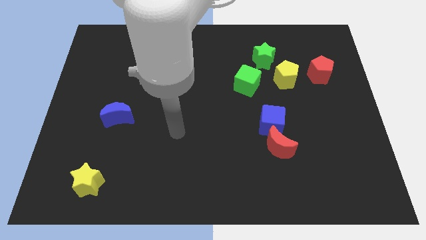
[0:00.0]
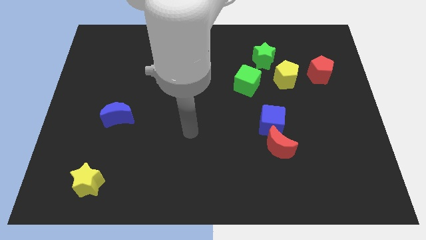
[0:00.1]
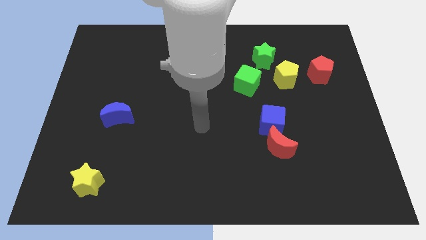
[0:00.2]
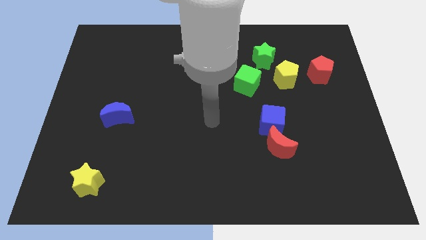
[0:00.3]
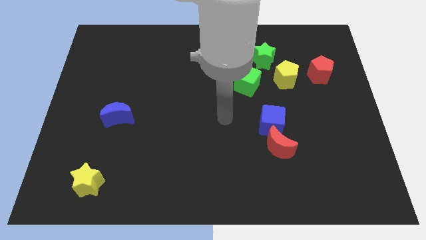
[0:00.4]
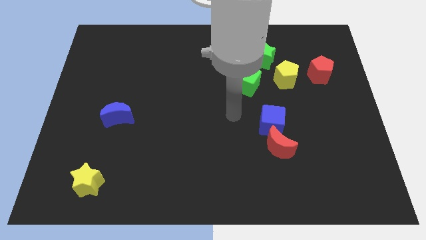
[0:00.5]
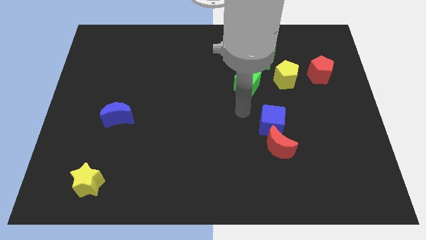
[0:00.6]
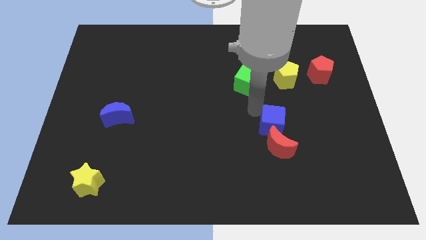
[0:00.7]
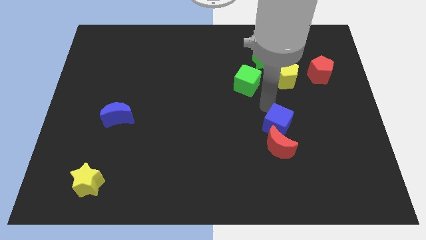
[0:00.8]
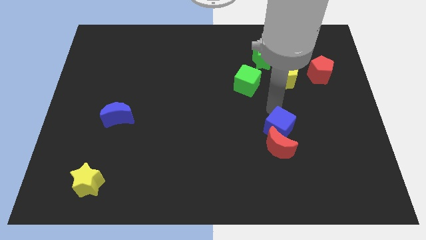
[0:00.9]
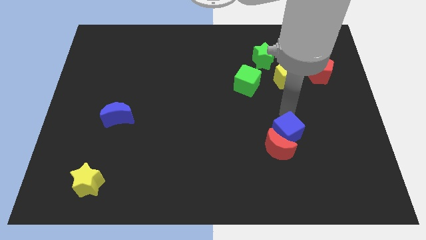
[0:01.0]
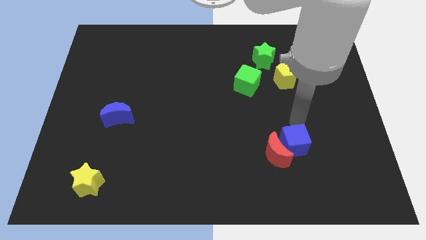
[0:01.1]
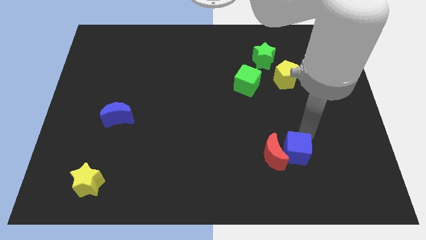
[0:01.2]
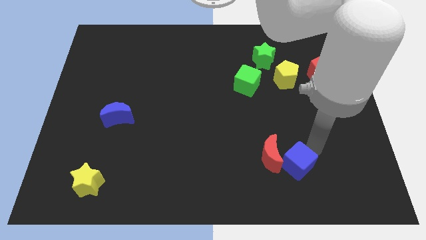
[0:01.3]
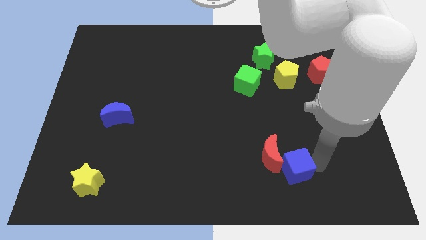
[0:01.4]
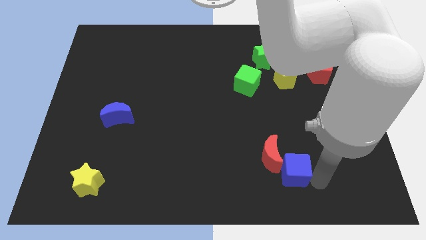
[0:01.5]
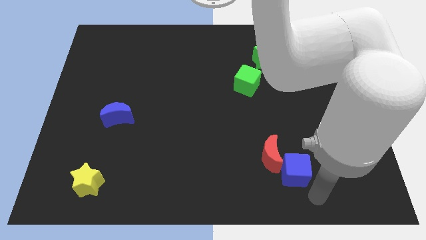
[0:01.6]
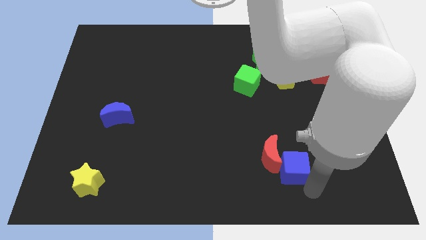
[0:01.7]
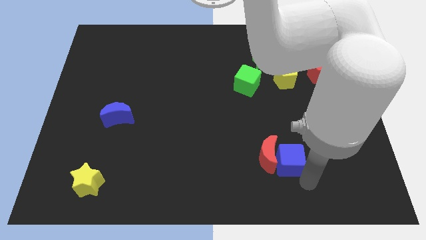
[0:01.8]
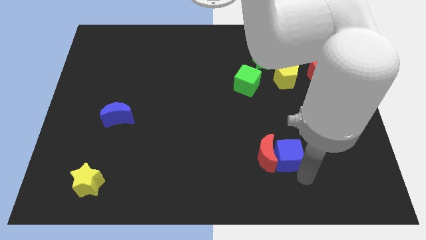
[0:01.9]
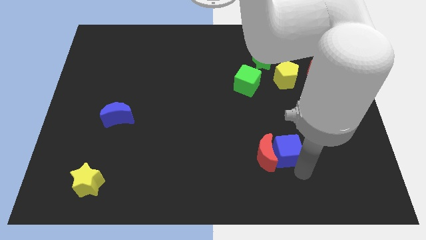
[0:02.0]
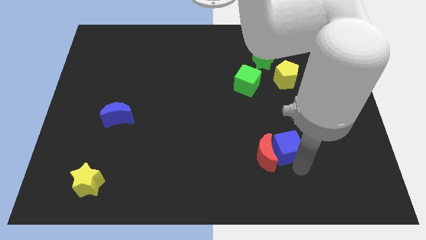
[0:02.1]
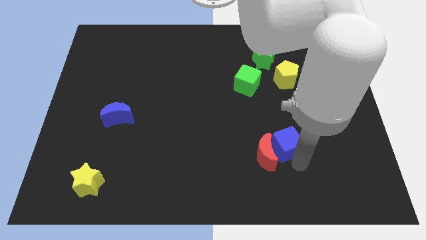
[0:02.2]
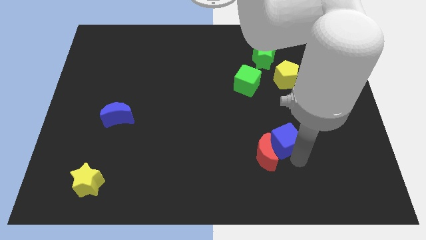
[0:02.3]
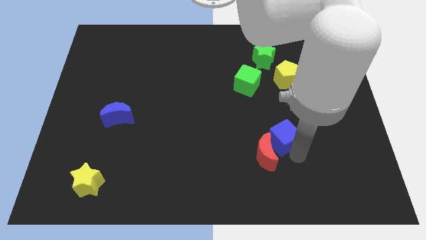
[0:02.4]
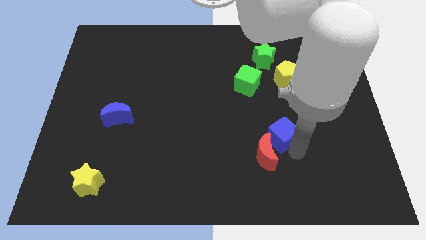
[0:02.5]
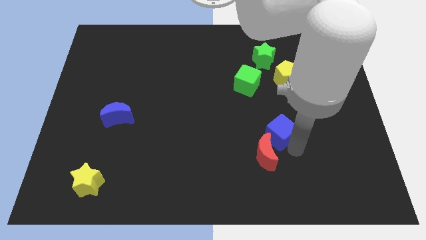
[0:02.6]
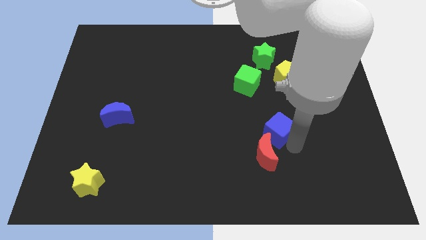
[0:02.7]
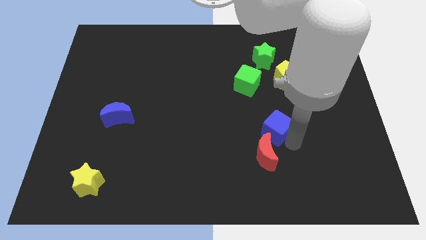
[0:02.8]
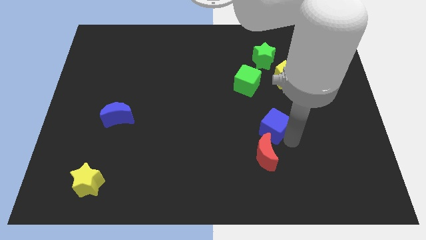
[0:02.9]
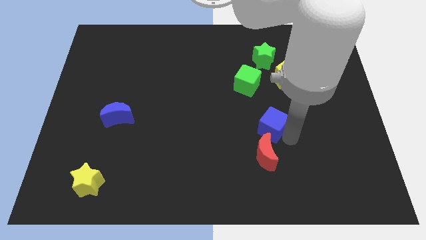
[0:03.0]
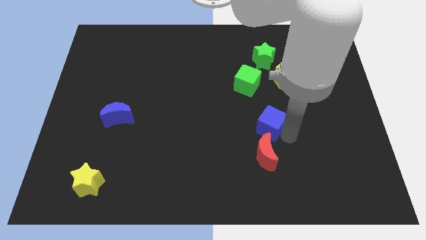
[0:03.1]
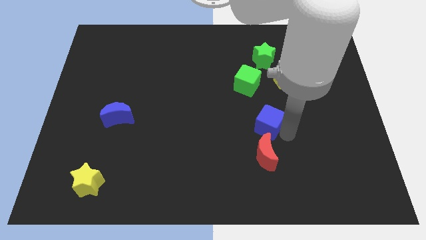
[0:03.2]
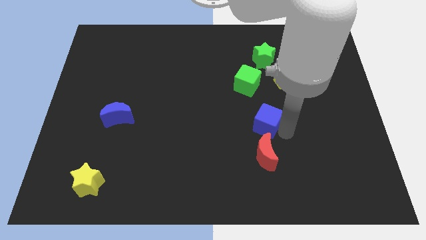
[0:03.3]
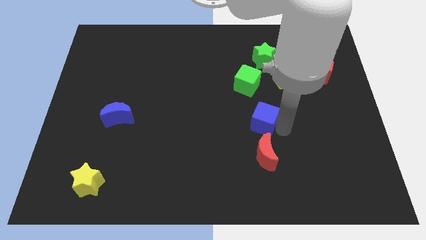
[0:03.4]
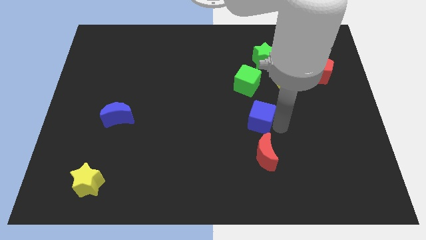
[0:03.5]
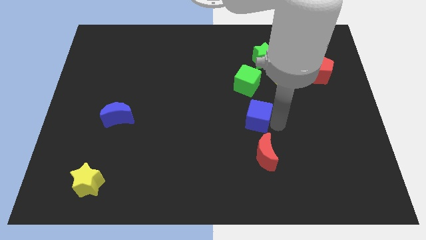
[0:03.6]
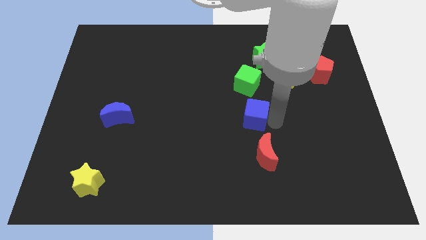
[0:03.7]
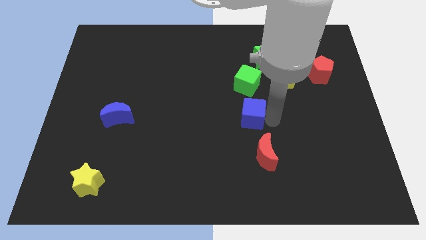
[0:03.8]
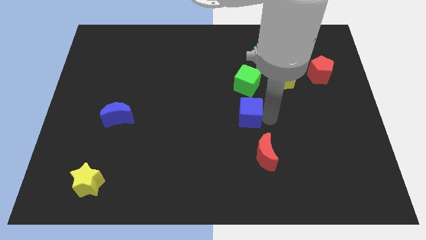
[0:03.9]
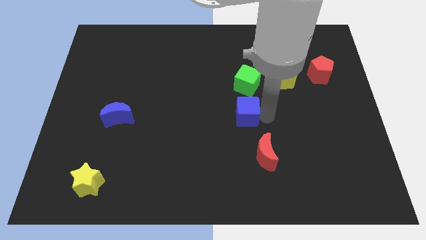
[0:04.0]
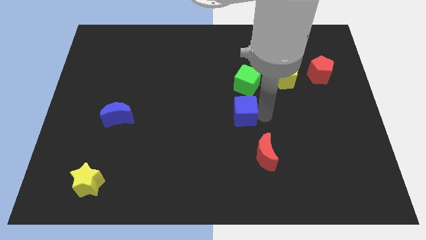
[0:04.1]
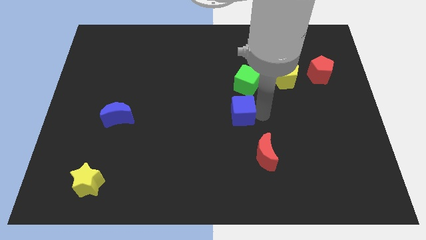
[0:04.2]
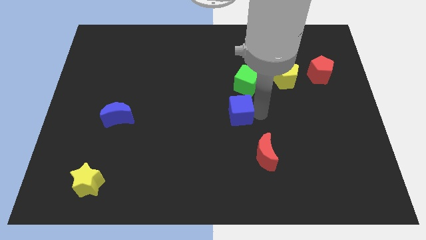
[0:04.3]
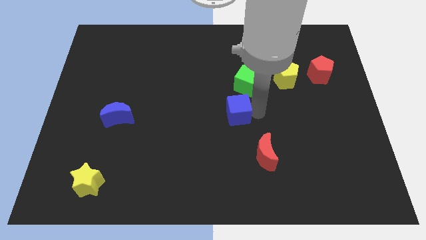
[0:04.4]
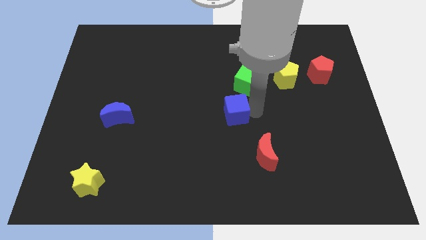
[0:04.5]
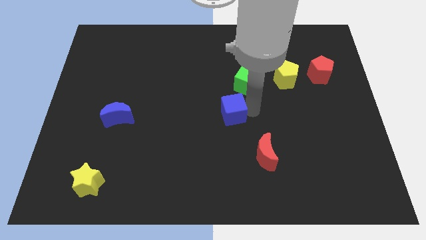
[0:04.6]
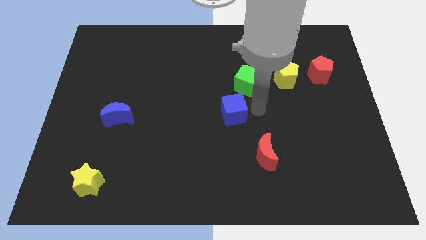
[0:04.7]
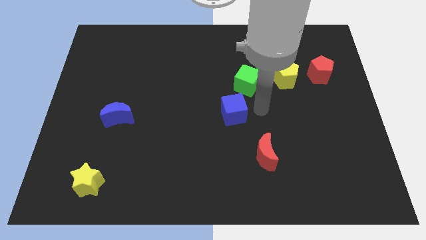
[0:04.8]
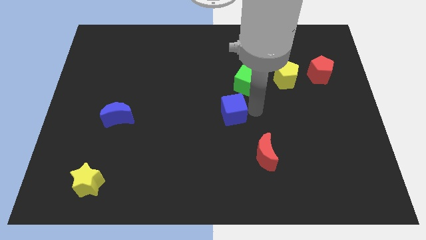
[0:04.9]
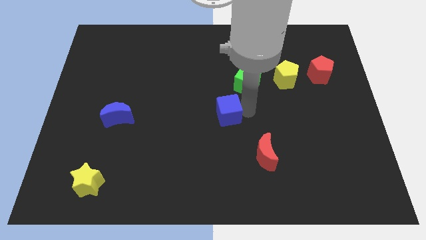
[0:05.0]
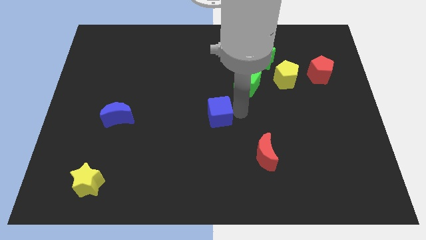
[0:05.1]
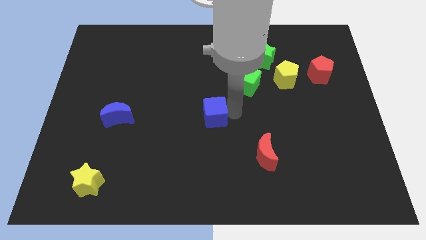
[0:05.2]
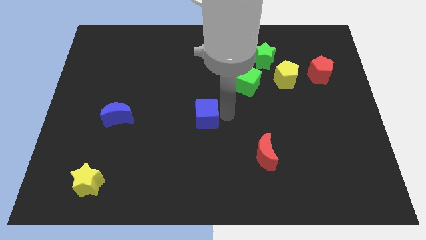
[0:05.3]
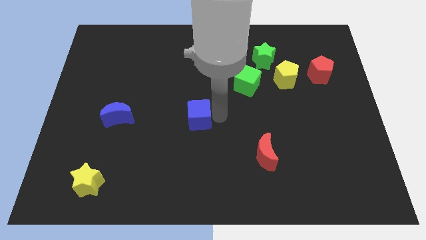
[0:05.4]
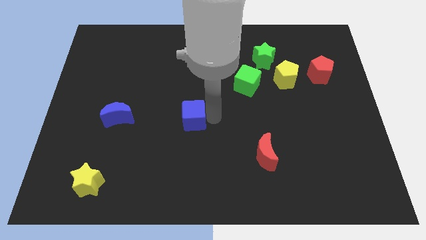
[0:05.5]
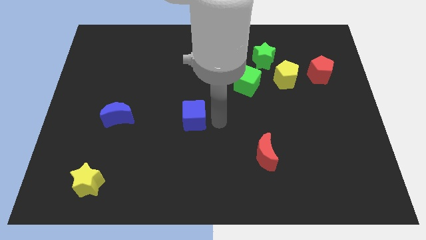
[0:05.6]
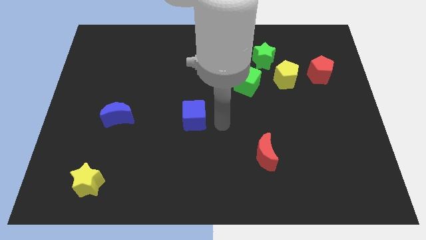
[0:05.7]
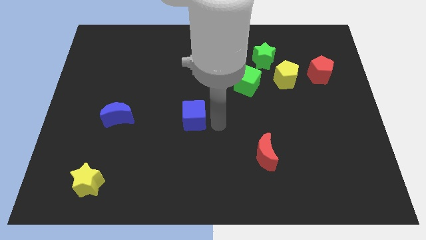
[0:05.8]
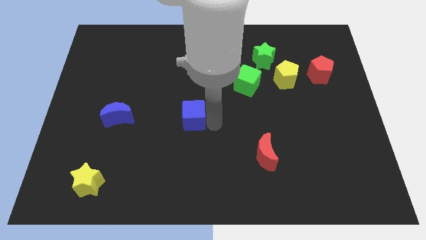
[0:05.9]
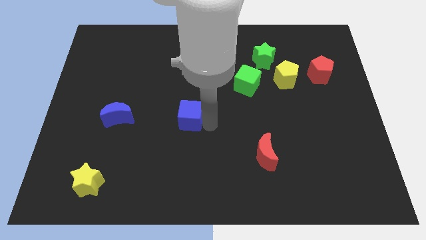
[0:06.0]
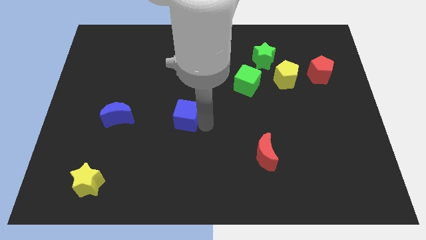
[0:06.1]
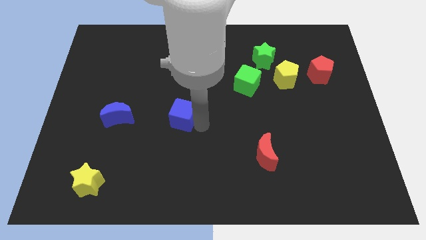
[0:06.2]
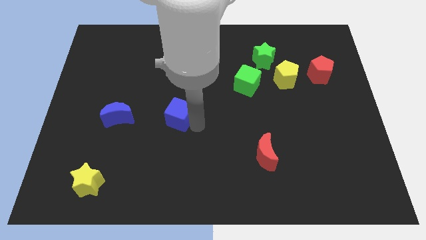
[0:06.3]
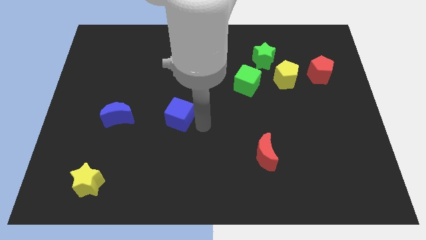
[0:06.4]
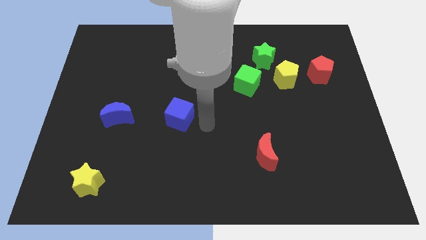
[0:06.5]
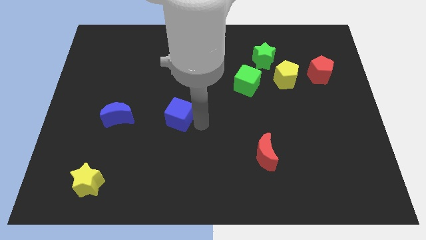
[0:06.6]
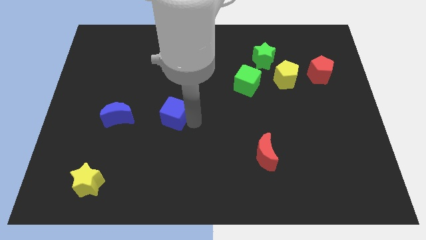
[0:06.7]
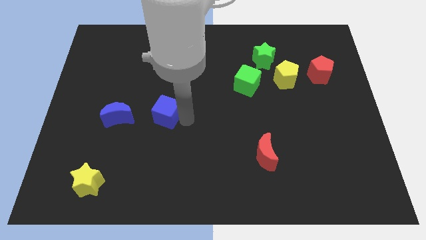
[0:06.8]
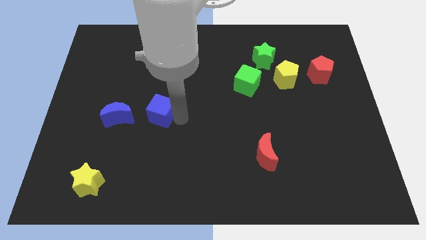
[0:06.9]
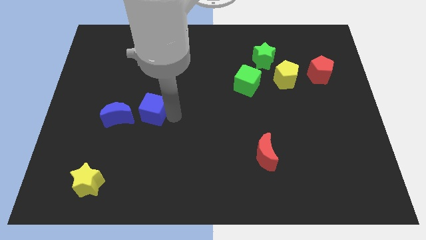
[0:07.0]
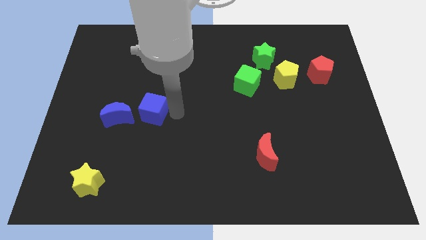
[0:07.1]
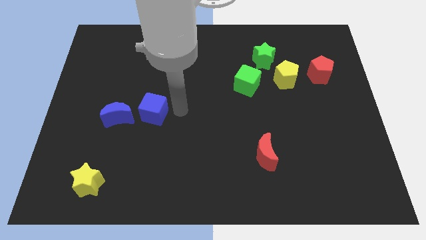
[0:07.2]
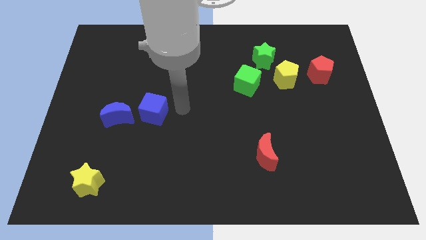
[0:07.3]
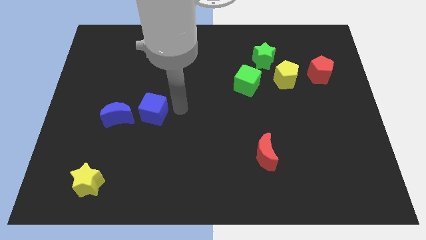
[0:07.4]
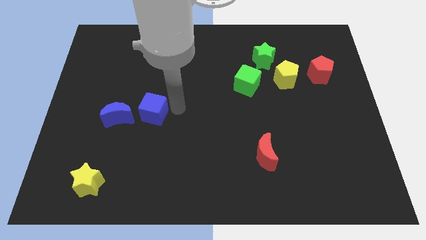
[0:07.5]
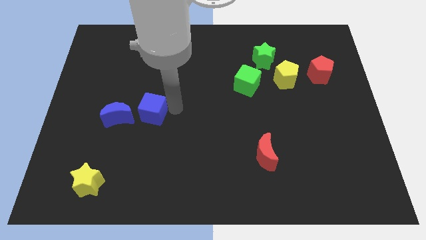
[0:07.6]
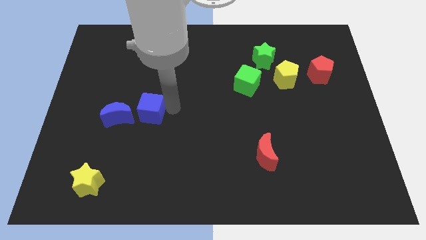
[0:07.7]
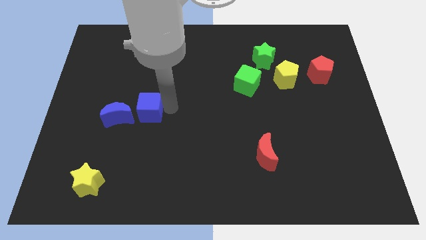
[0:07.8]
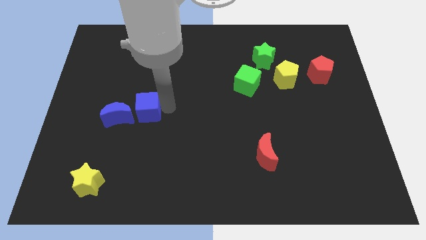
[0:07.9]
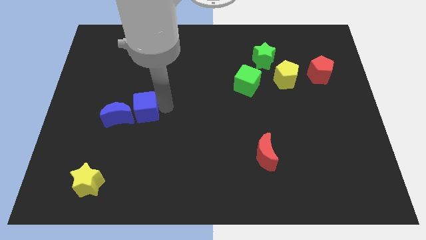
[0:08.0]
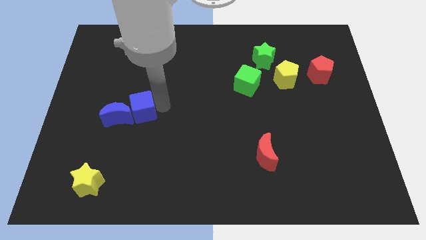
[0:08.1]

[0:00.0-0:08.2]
slide the blue cube towards the blue moon
